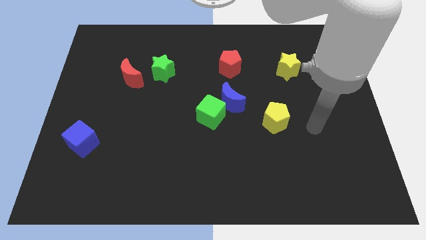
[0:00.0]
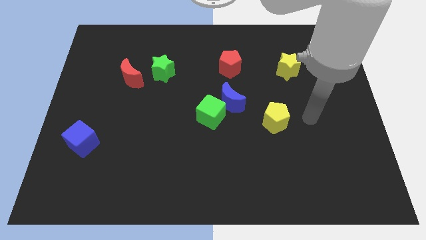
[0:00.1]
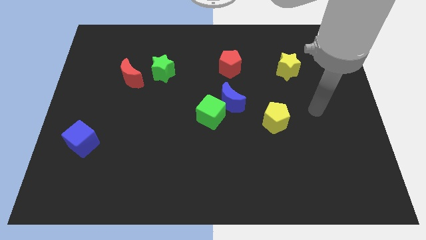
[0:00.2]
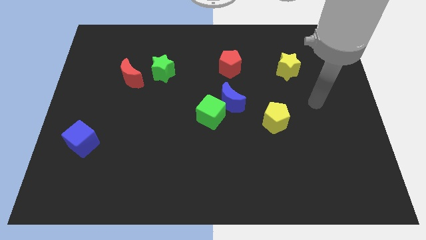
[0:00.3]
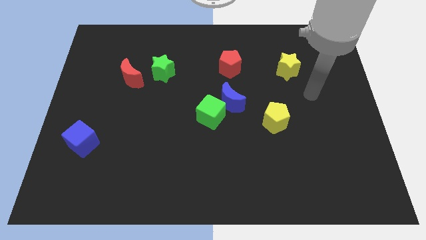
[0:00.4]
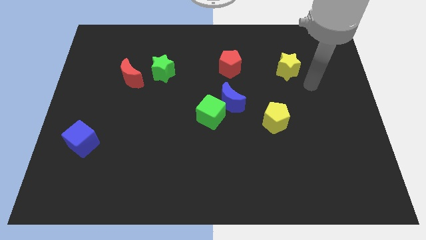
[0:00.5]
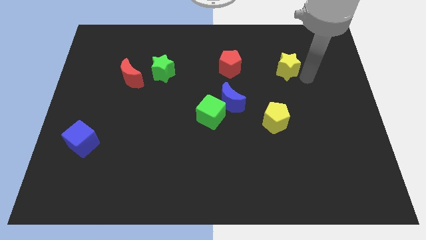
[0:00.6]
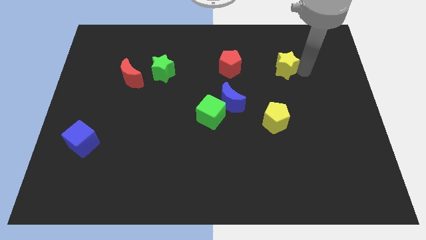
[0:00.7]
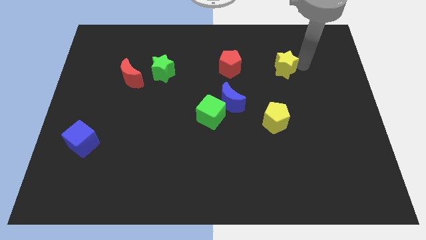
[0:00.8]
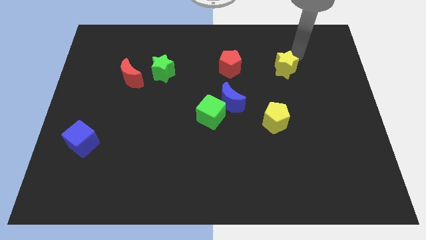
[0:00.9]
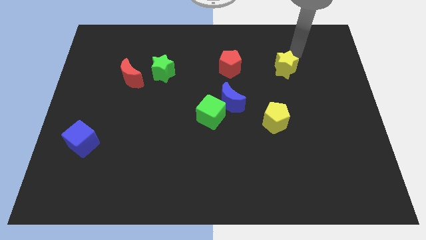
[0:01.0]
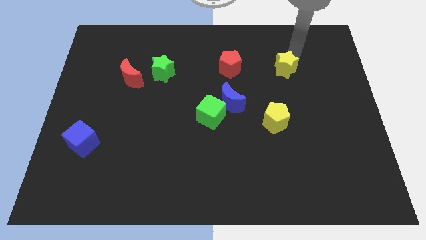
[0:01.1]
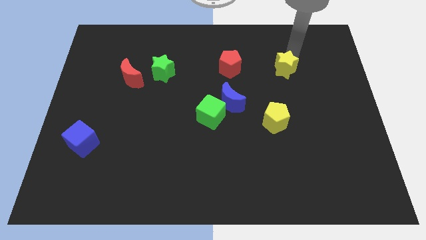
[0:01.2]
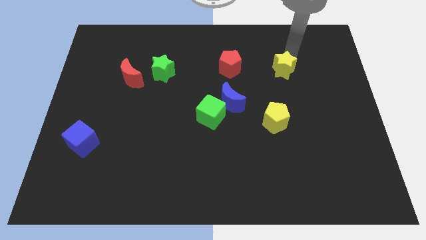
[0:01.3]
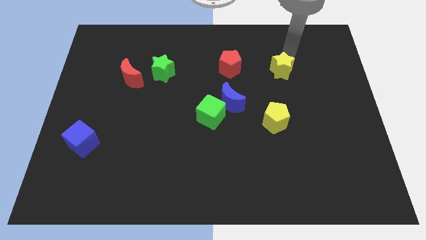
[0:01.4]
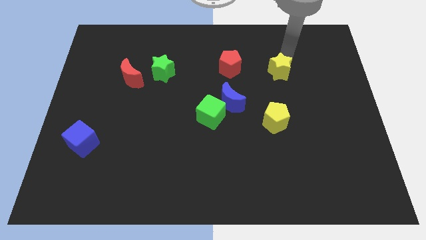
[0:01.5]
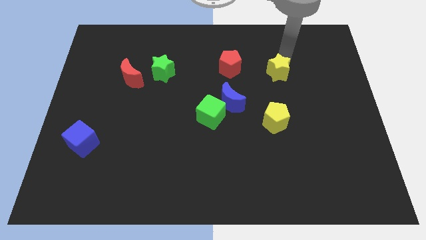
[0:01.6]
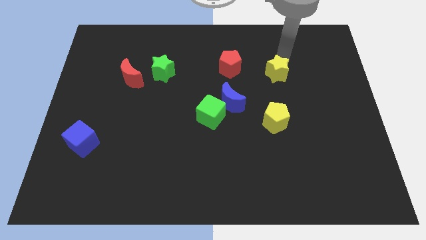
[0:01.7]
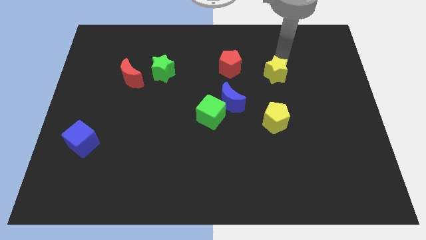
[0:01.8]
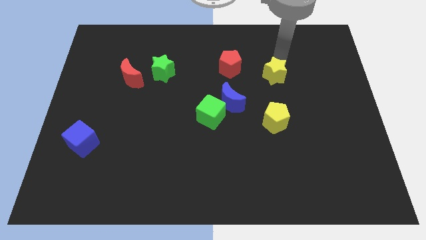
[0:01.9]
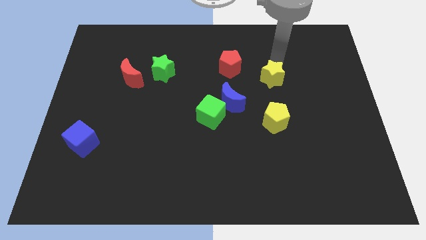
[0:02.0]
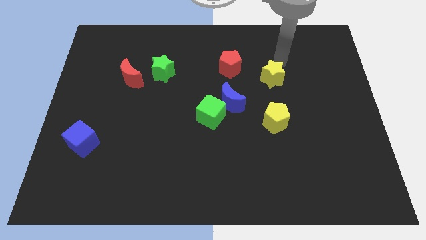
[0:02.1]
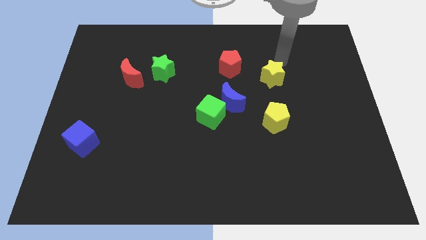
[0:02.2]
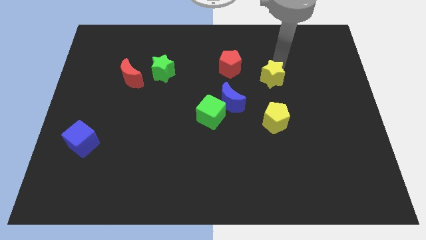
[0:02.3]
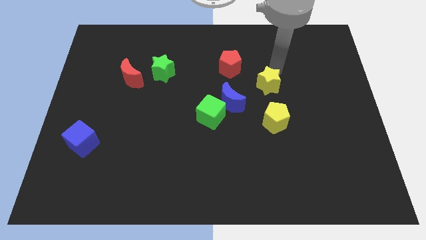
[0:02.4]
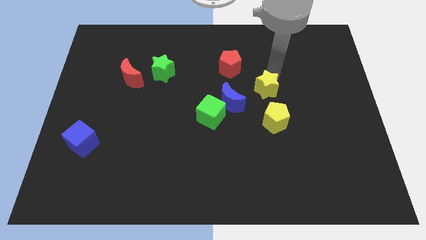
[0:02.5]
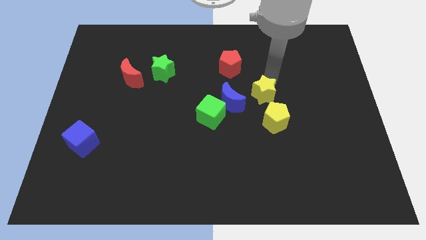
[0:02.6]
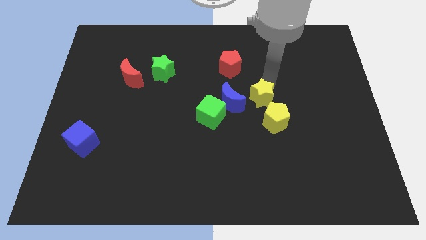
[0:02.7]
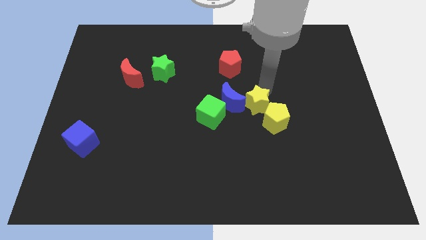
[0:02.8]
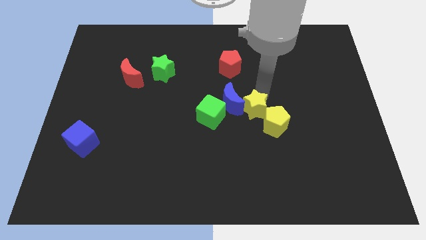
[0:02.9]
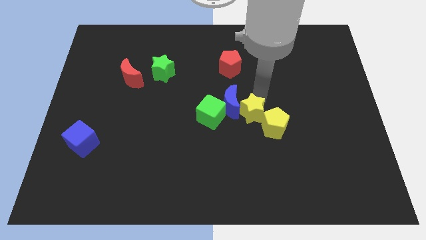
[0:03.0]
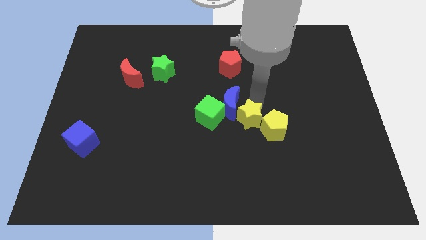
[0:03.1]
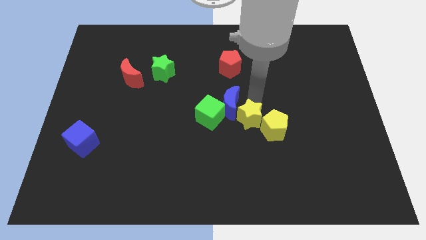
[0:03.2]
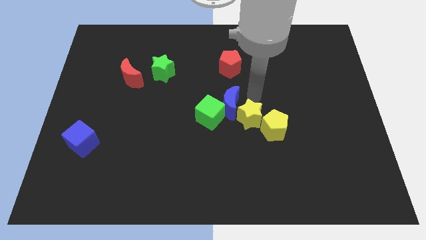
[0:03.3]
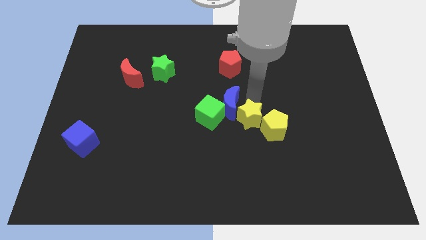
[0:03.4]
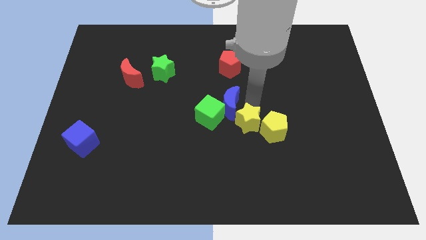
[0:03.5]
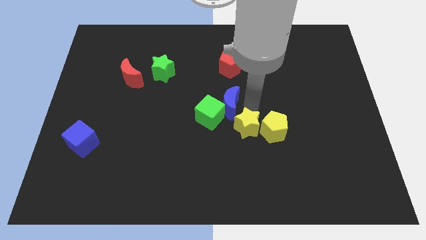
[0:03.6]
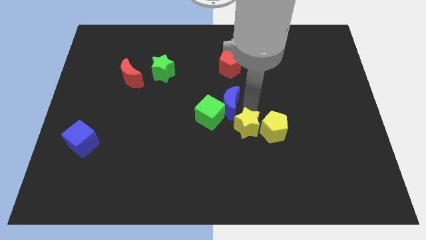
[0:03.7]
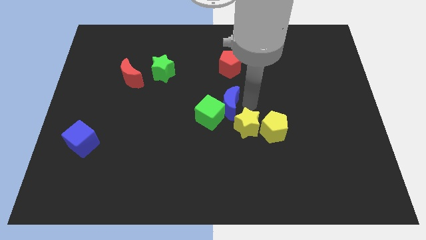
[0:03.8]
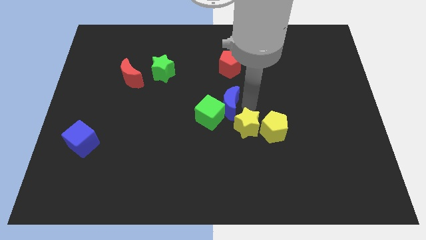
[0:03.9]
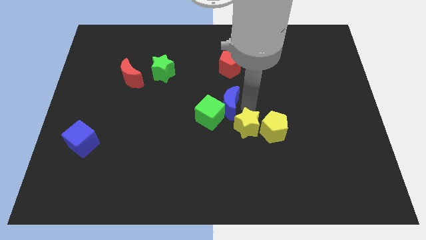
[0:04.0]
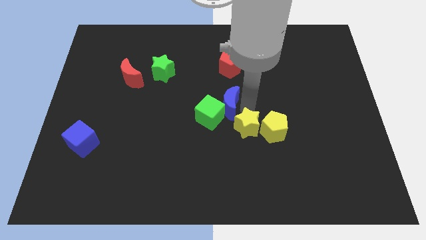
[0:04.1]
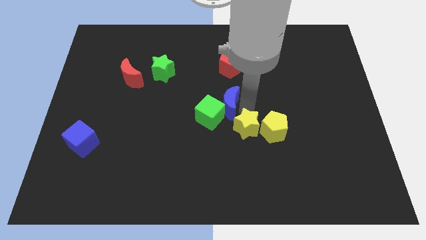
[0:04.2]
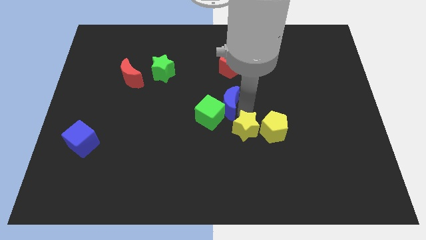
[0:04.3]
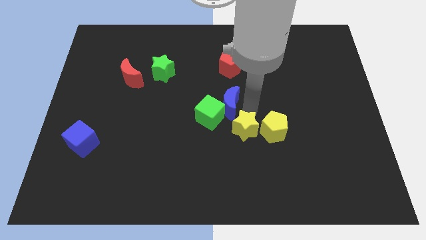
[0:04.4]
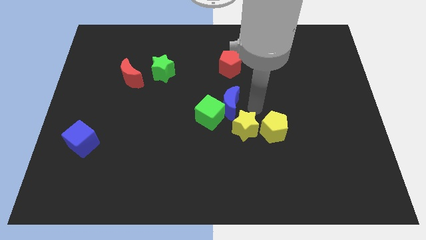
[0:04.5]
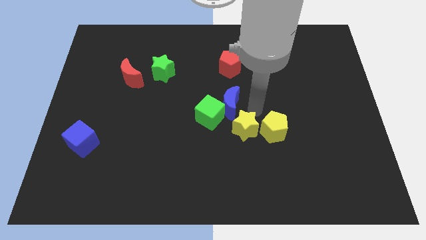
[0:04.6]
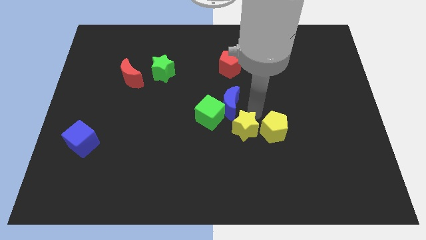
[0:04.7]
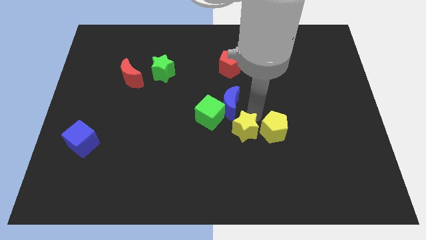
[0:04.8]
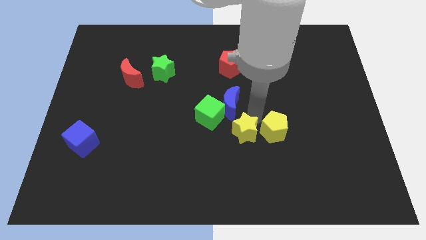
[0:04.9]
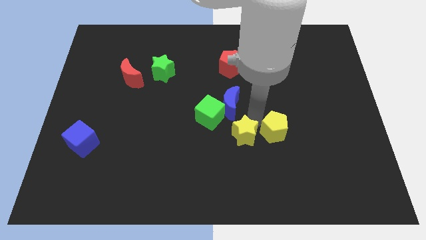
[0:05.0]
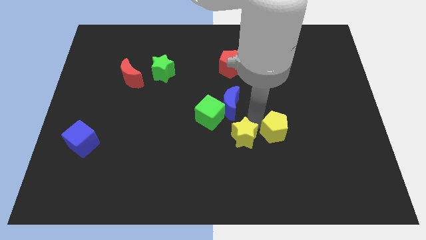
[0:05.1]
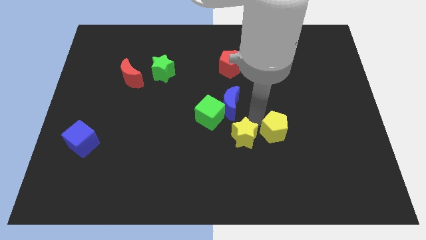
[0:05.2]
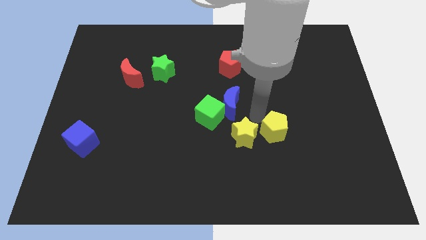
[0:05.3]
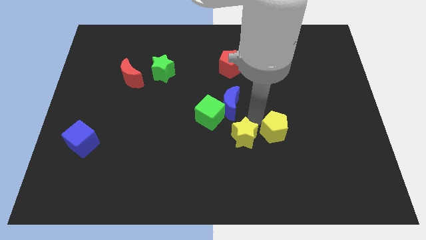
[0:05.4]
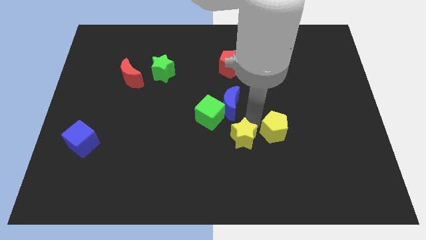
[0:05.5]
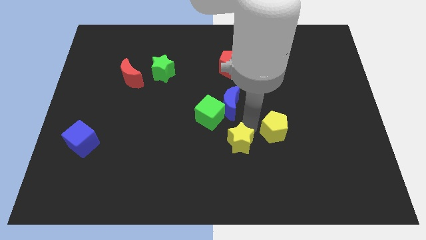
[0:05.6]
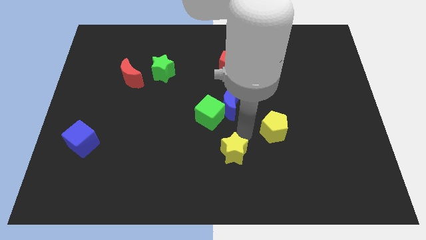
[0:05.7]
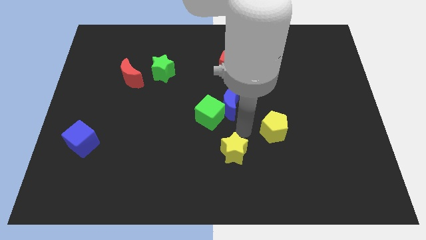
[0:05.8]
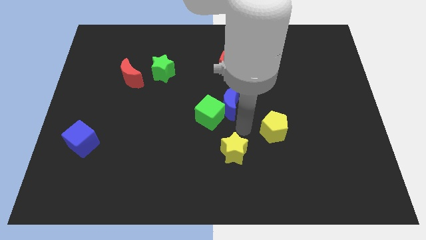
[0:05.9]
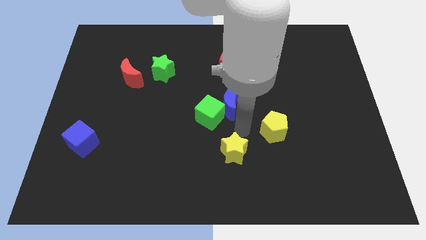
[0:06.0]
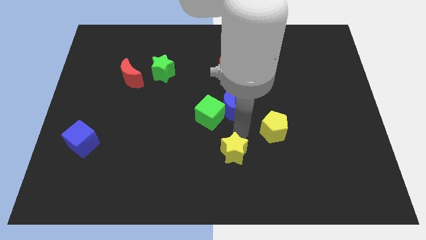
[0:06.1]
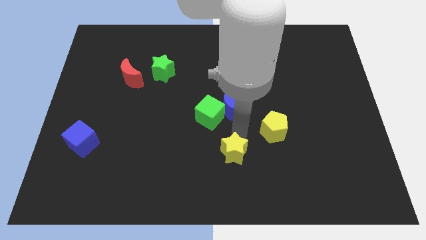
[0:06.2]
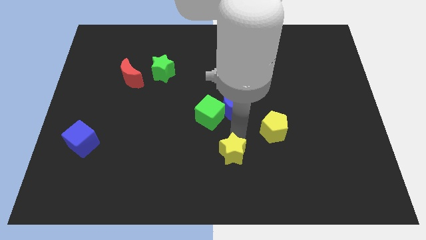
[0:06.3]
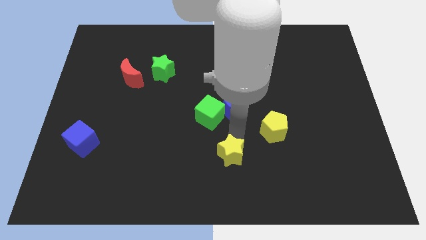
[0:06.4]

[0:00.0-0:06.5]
push the yellow star to the bottom
